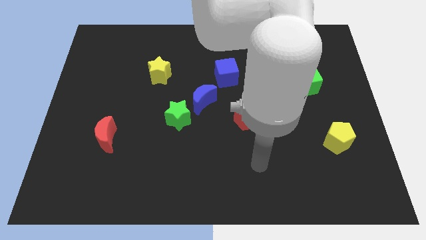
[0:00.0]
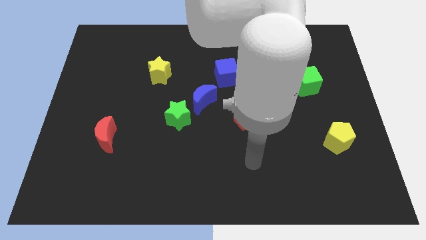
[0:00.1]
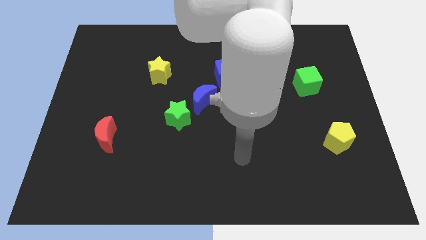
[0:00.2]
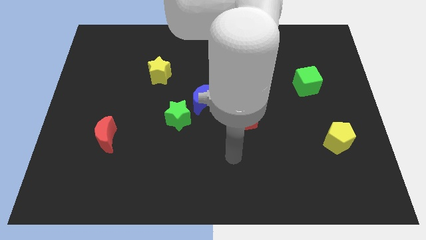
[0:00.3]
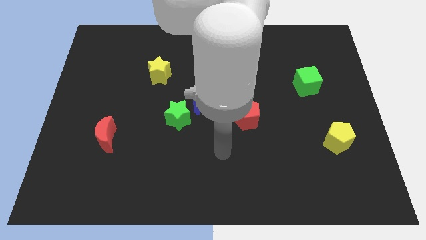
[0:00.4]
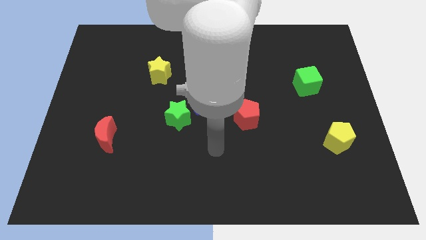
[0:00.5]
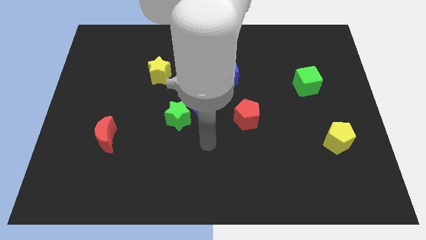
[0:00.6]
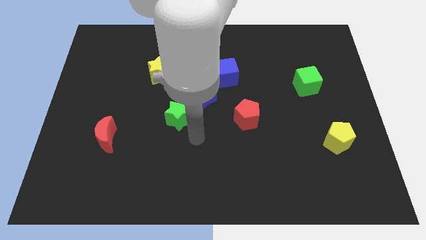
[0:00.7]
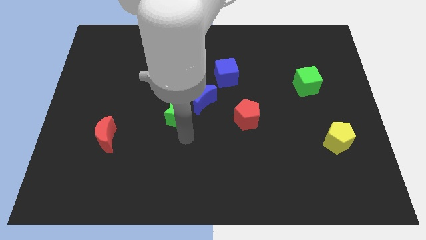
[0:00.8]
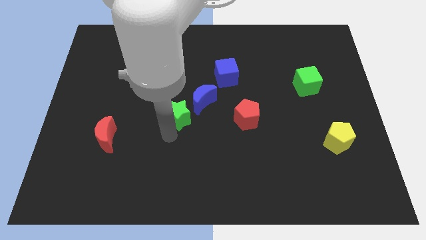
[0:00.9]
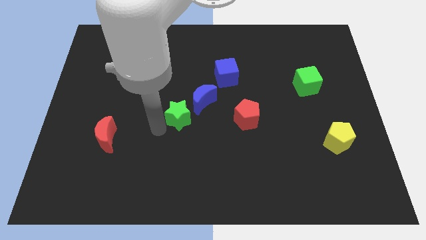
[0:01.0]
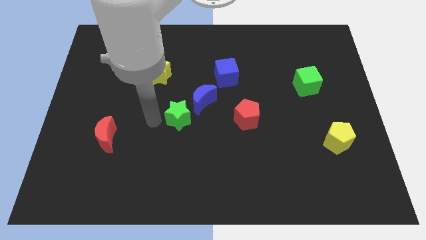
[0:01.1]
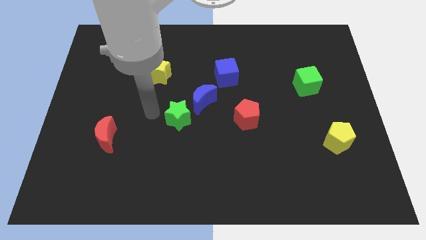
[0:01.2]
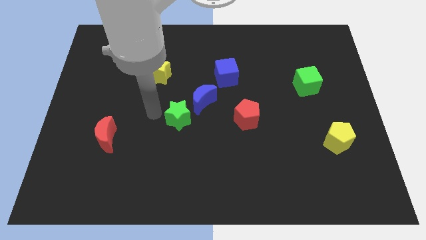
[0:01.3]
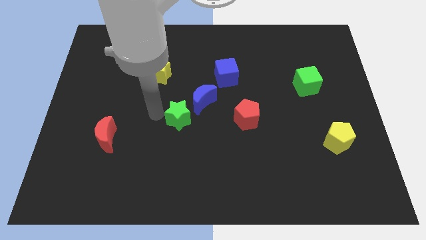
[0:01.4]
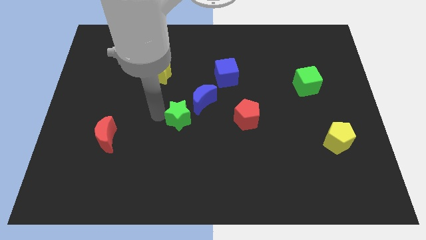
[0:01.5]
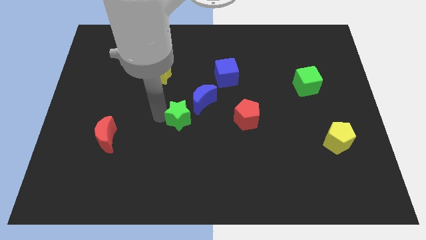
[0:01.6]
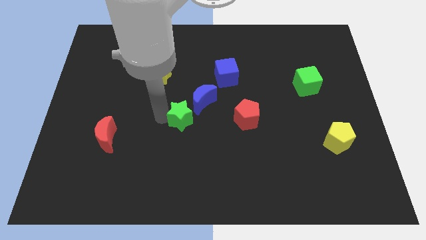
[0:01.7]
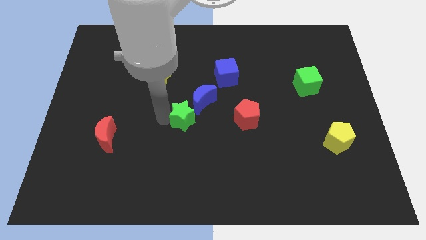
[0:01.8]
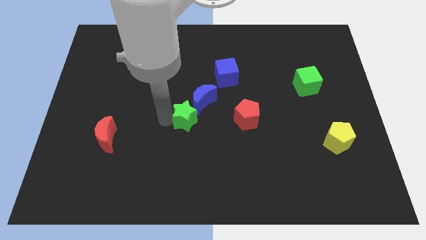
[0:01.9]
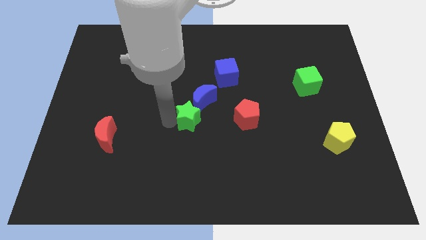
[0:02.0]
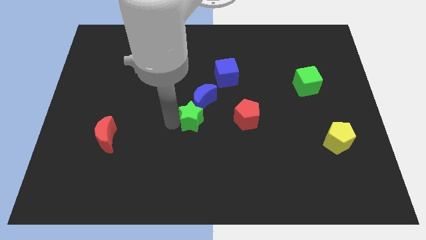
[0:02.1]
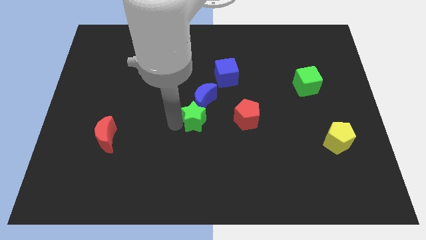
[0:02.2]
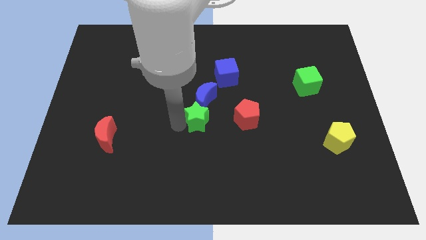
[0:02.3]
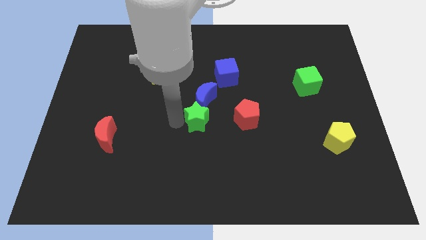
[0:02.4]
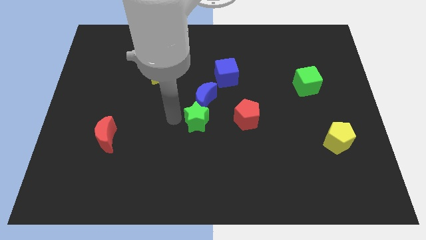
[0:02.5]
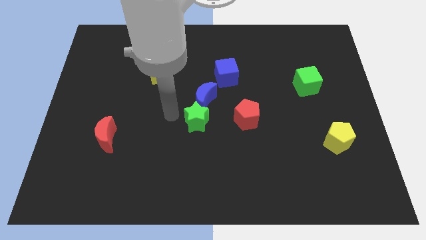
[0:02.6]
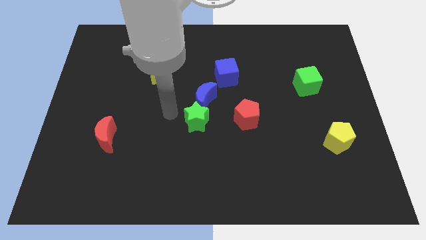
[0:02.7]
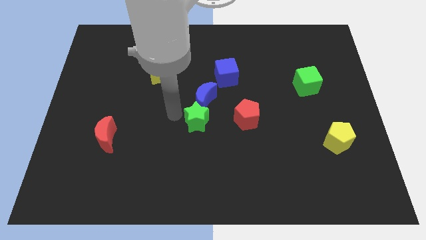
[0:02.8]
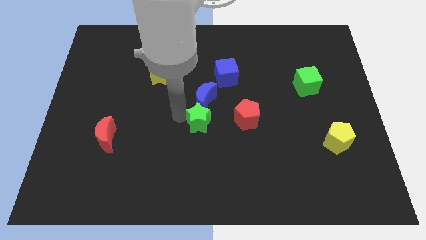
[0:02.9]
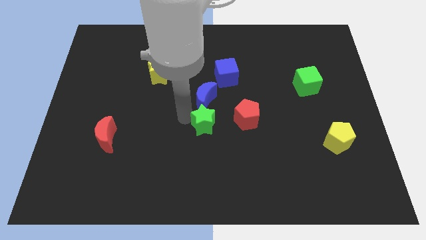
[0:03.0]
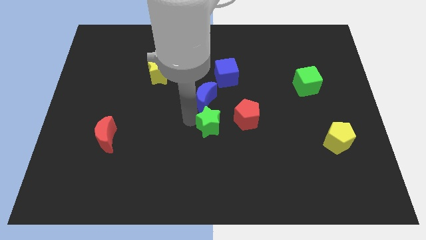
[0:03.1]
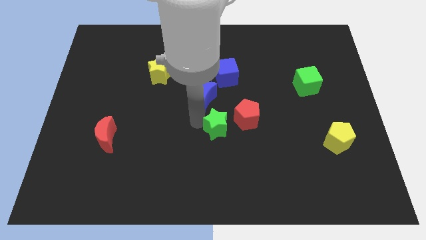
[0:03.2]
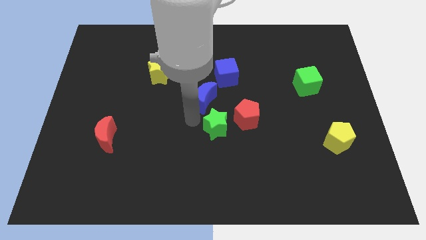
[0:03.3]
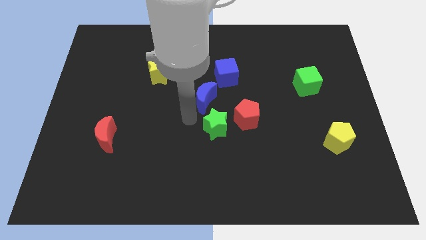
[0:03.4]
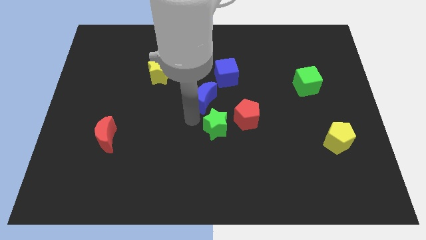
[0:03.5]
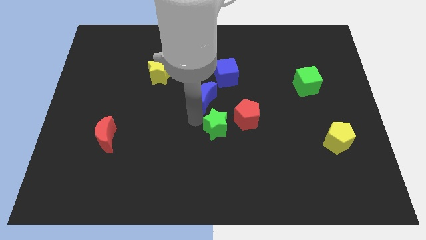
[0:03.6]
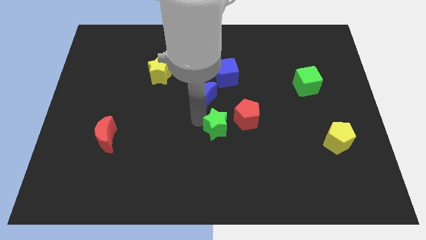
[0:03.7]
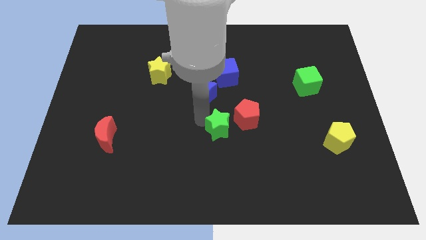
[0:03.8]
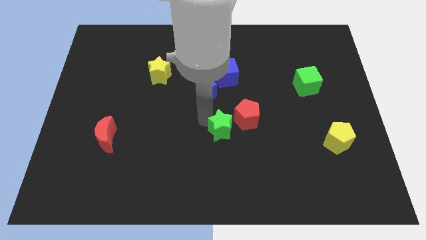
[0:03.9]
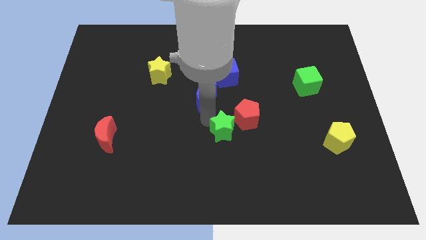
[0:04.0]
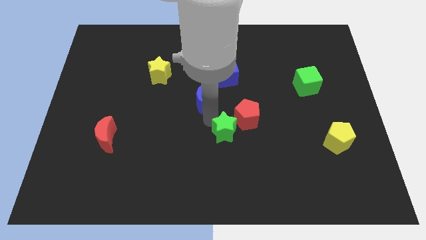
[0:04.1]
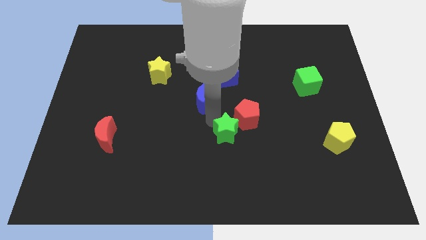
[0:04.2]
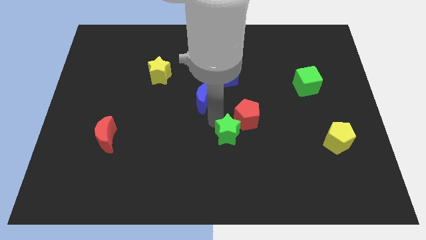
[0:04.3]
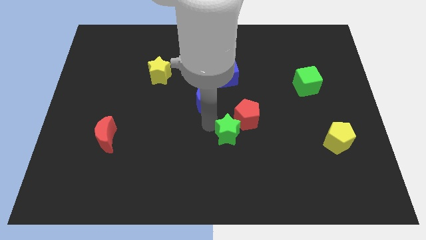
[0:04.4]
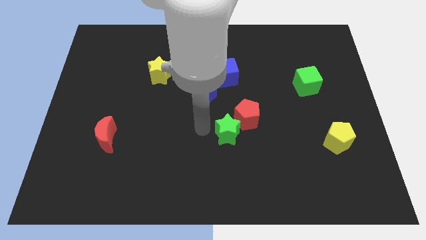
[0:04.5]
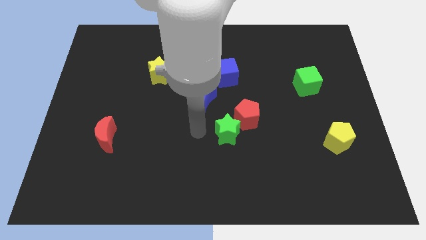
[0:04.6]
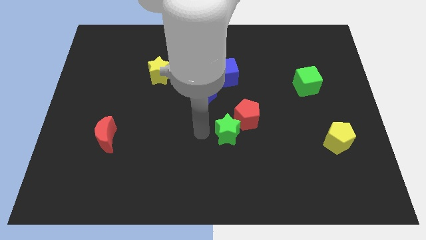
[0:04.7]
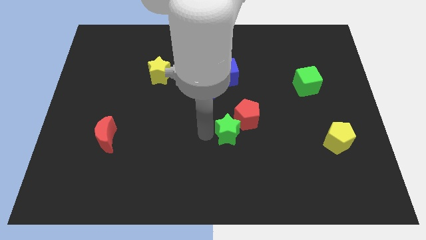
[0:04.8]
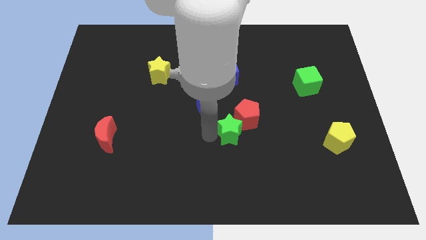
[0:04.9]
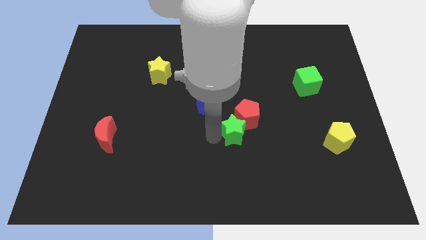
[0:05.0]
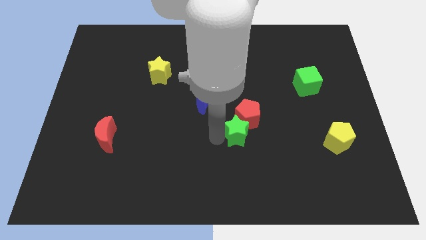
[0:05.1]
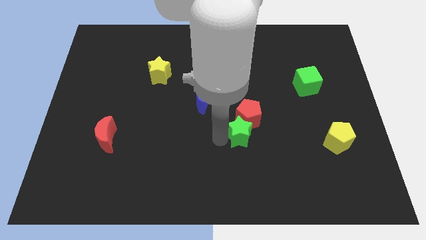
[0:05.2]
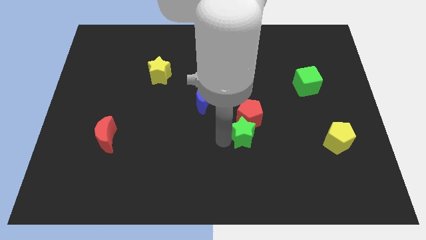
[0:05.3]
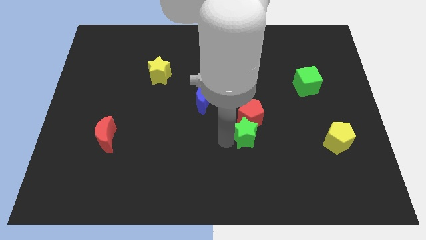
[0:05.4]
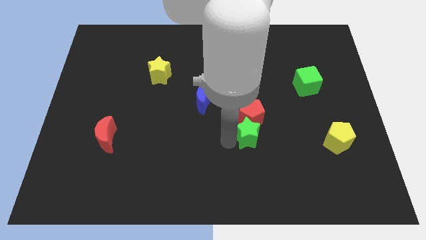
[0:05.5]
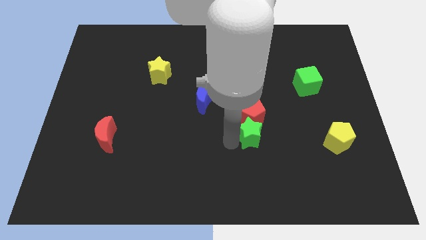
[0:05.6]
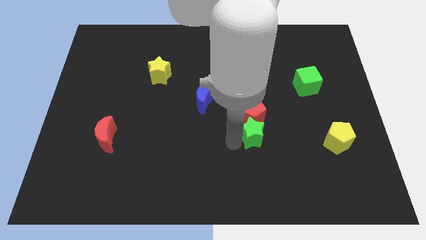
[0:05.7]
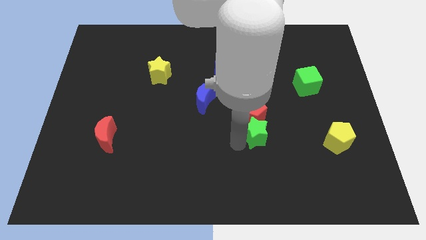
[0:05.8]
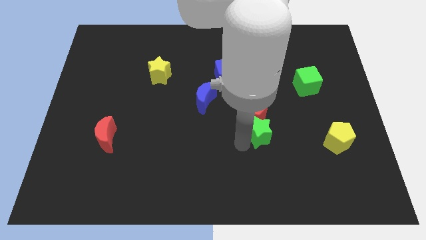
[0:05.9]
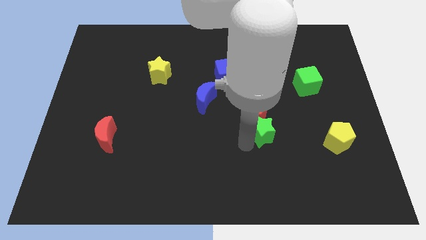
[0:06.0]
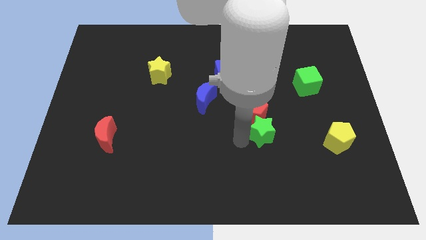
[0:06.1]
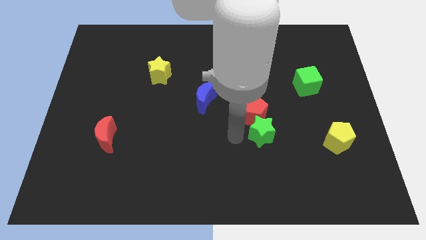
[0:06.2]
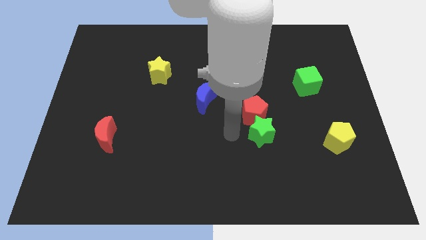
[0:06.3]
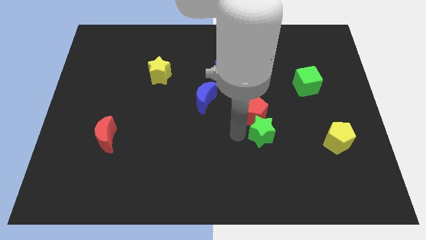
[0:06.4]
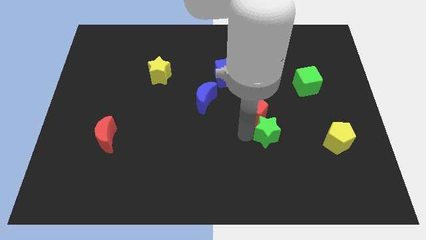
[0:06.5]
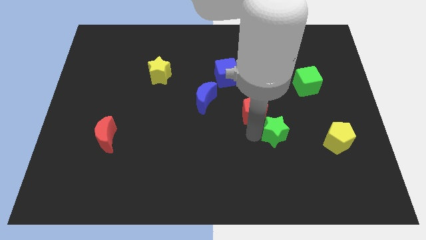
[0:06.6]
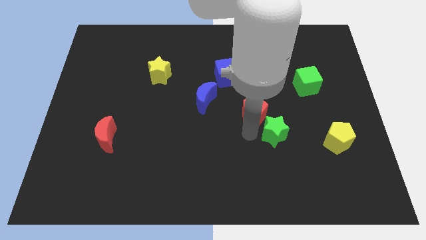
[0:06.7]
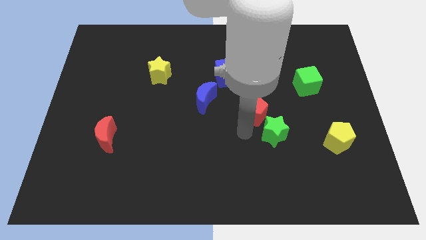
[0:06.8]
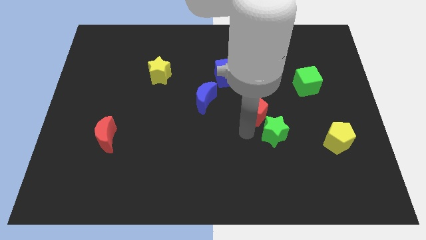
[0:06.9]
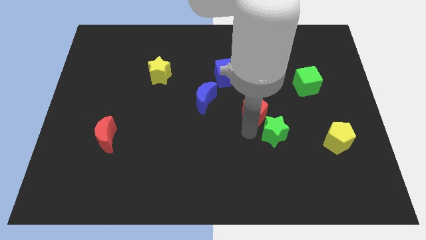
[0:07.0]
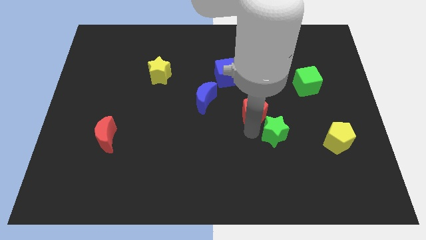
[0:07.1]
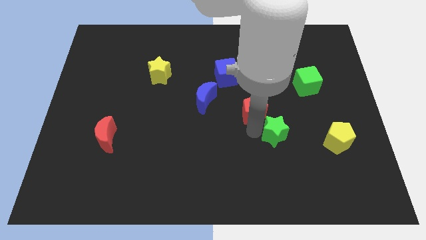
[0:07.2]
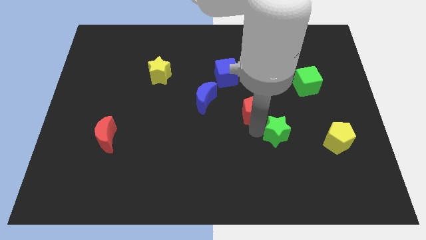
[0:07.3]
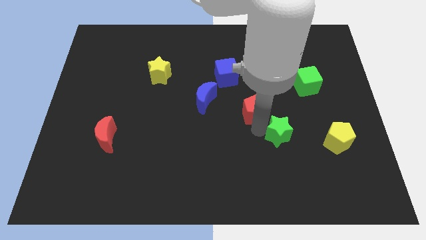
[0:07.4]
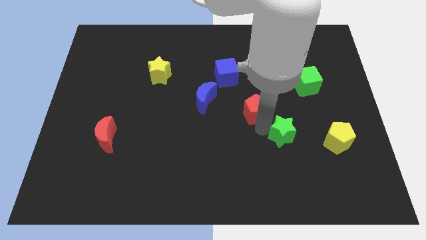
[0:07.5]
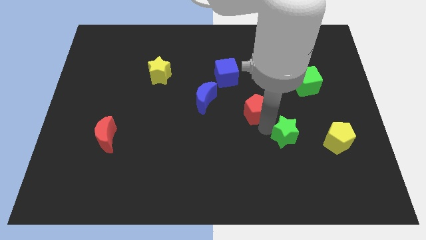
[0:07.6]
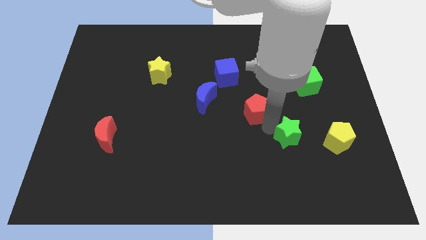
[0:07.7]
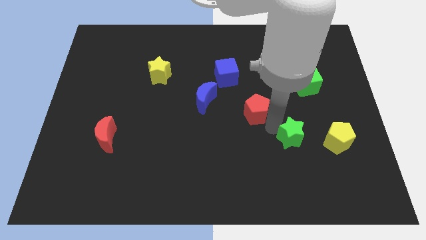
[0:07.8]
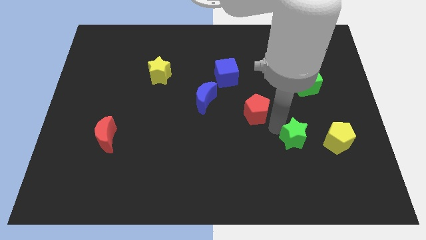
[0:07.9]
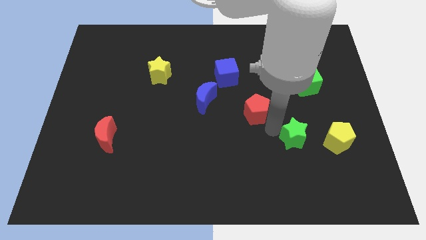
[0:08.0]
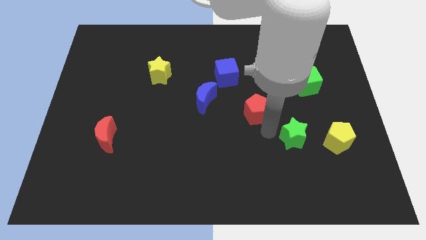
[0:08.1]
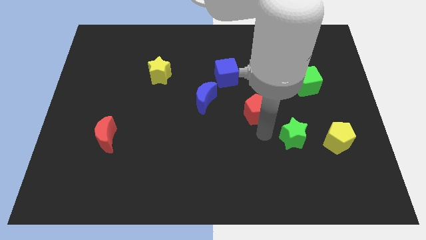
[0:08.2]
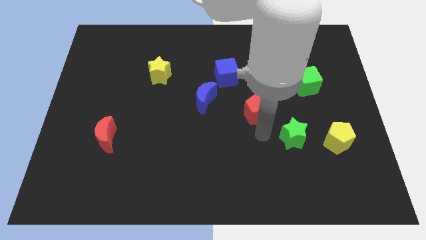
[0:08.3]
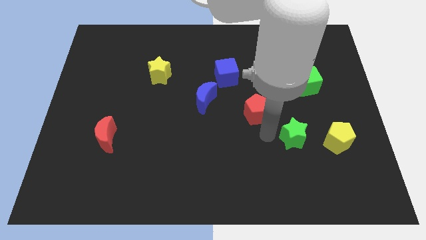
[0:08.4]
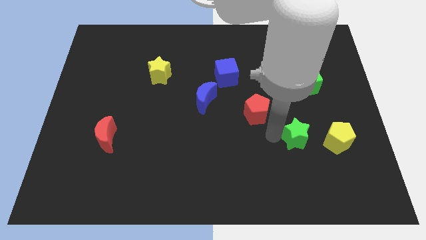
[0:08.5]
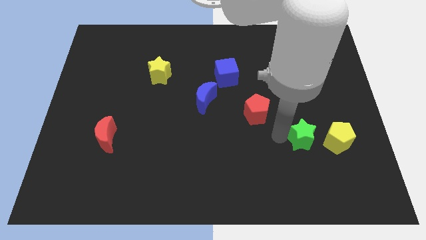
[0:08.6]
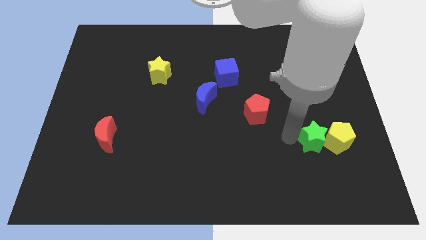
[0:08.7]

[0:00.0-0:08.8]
put the green star towards the yellow pentagon
